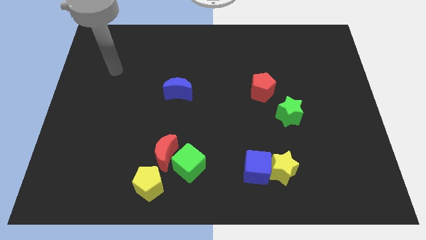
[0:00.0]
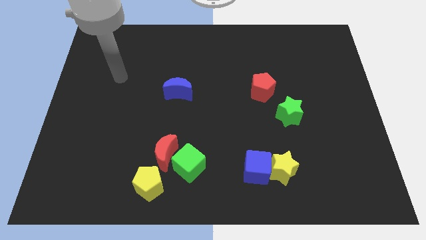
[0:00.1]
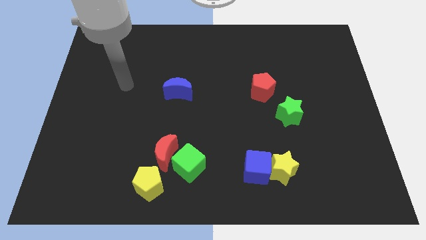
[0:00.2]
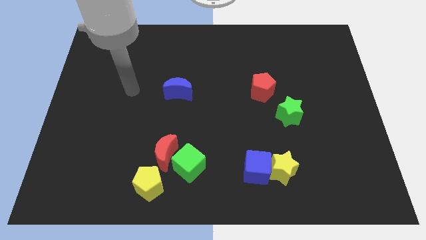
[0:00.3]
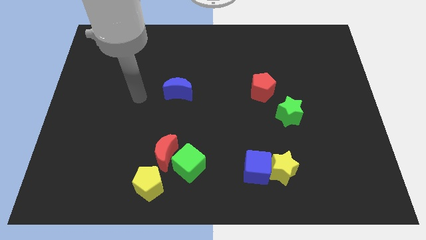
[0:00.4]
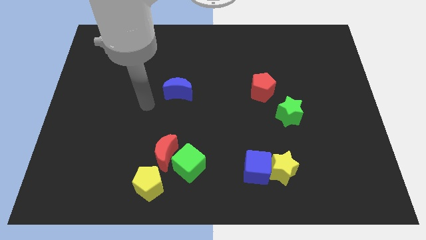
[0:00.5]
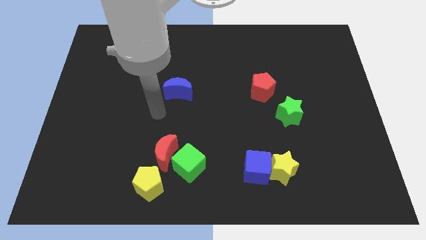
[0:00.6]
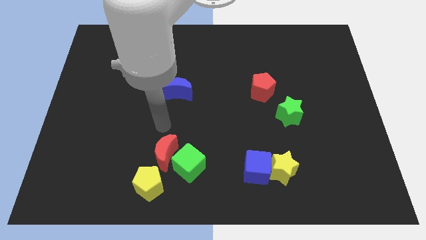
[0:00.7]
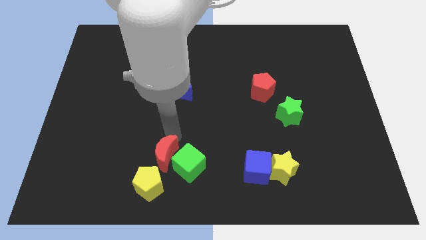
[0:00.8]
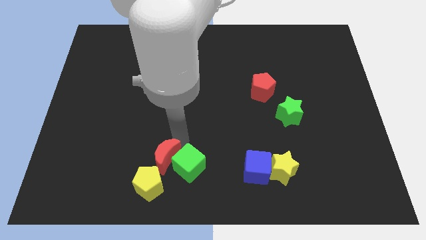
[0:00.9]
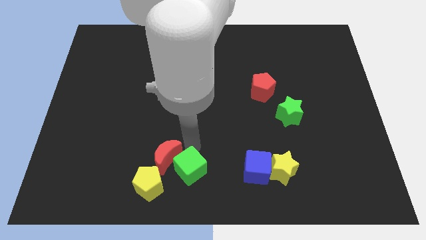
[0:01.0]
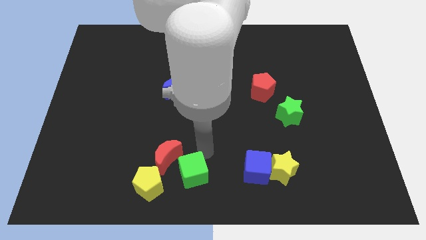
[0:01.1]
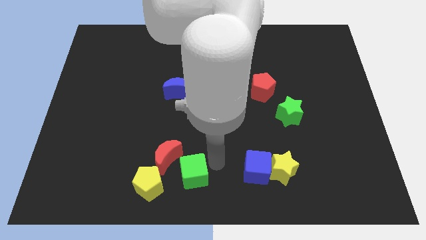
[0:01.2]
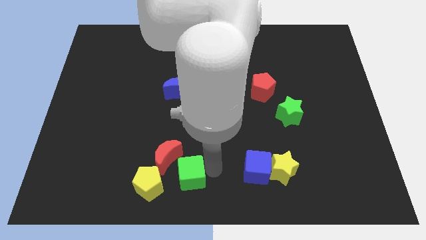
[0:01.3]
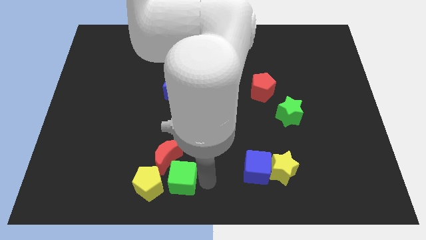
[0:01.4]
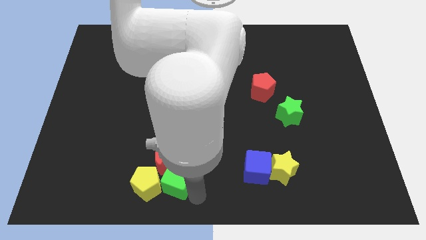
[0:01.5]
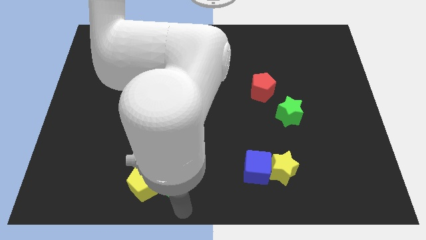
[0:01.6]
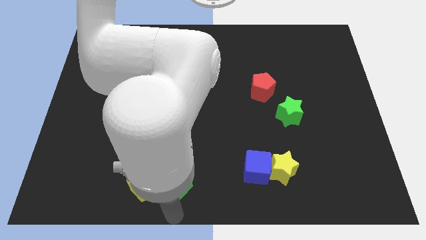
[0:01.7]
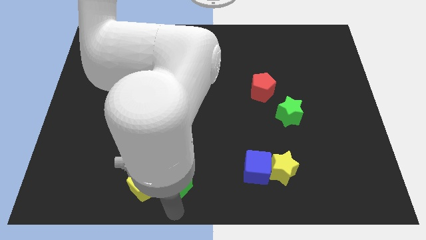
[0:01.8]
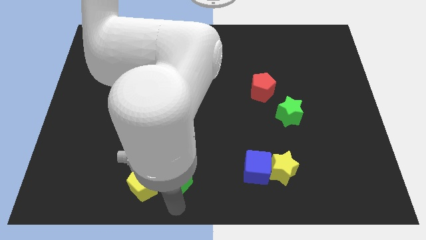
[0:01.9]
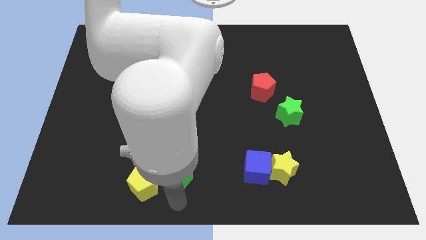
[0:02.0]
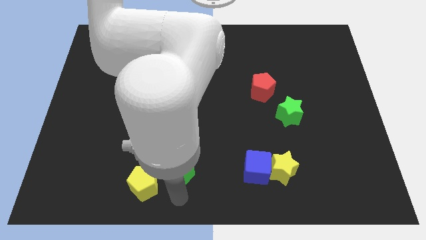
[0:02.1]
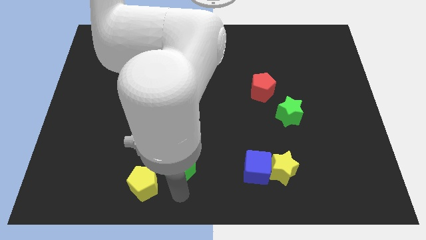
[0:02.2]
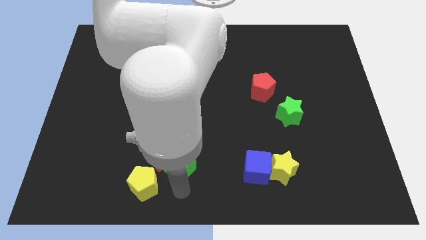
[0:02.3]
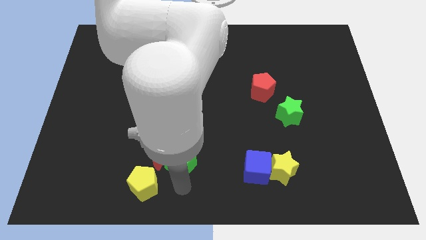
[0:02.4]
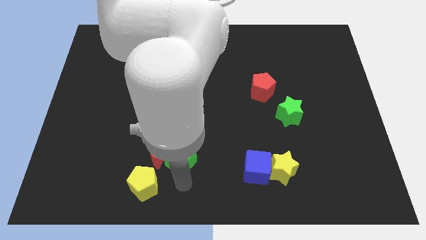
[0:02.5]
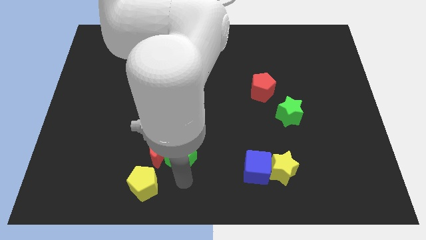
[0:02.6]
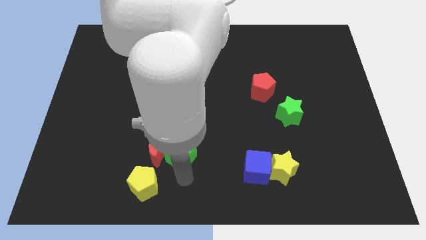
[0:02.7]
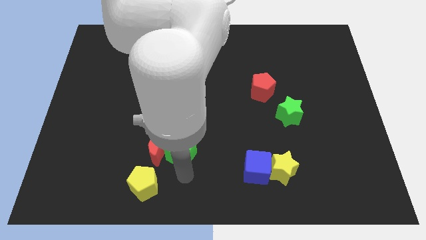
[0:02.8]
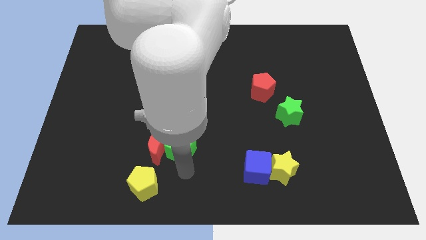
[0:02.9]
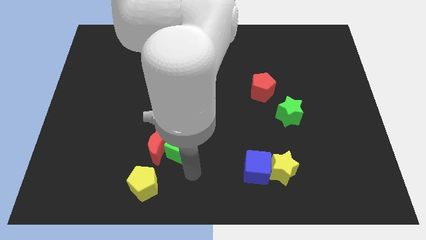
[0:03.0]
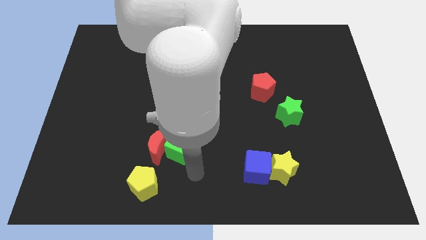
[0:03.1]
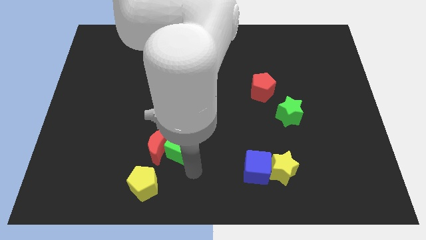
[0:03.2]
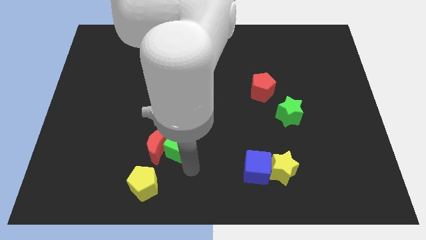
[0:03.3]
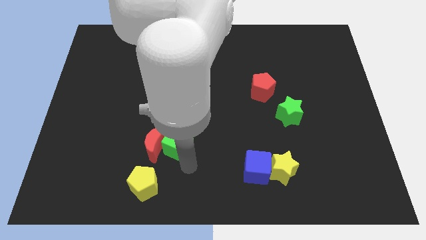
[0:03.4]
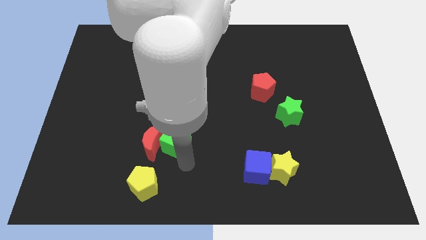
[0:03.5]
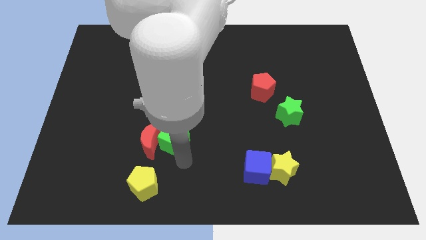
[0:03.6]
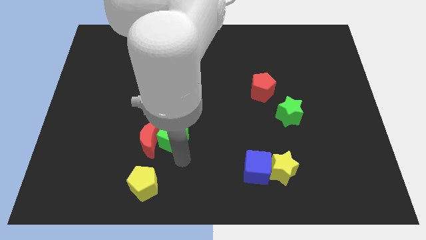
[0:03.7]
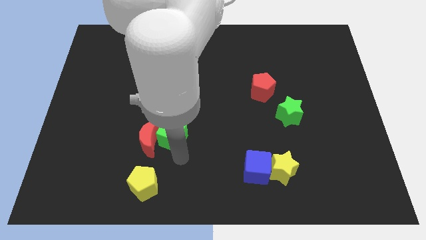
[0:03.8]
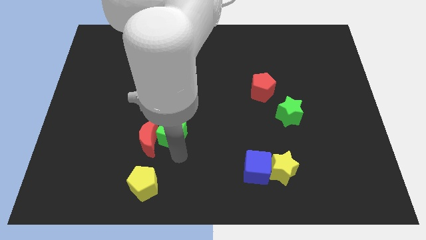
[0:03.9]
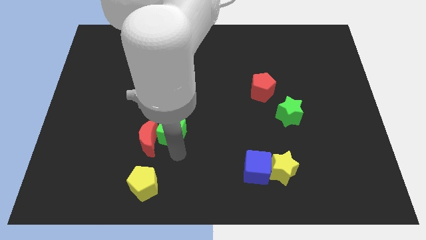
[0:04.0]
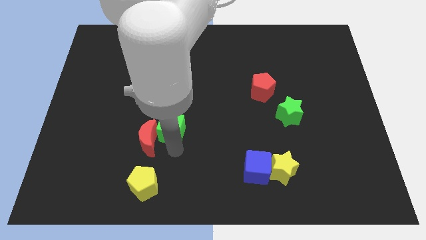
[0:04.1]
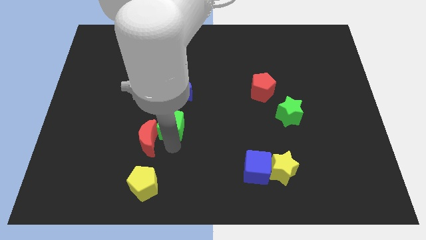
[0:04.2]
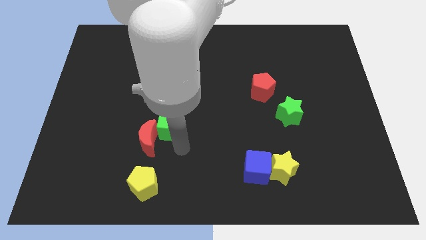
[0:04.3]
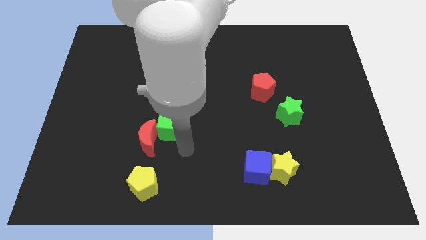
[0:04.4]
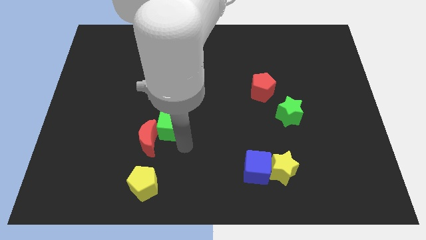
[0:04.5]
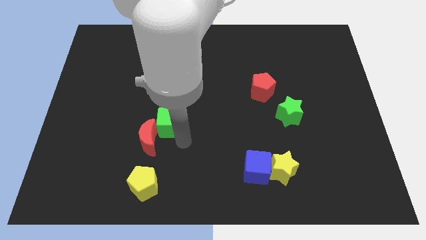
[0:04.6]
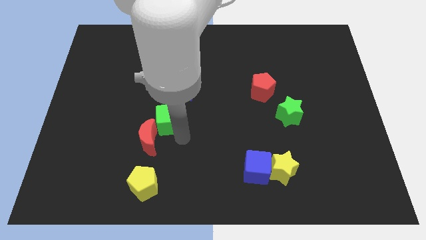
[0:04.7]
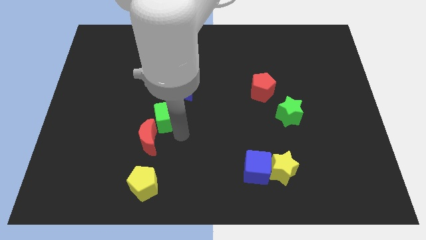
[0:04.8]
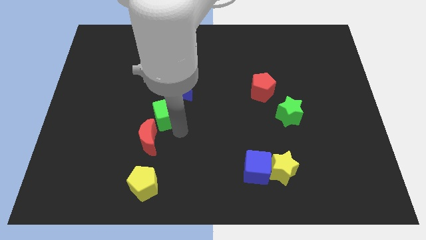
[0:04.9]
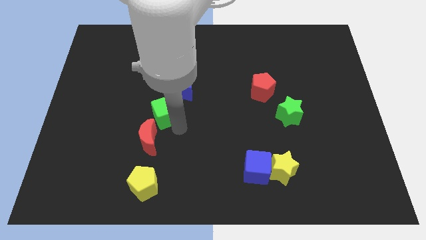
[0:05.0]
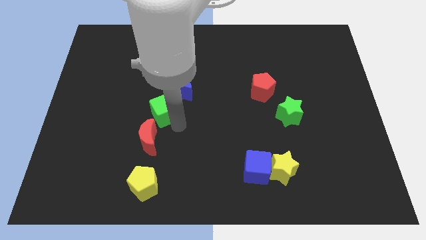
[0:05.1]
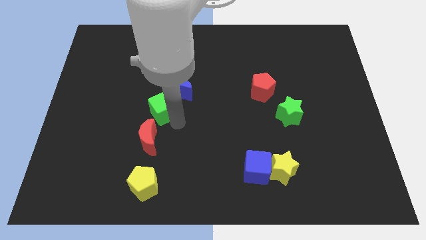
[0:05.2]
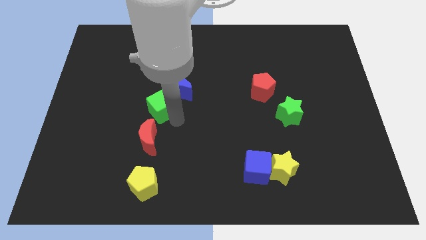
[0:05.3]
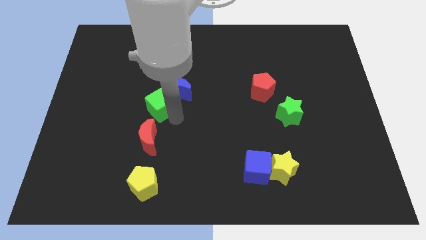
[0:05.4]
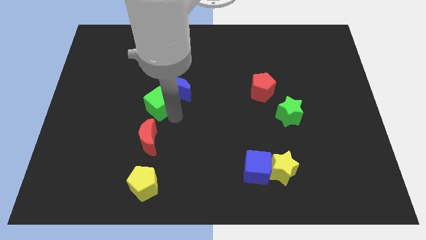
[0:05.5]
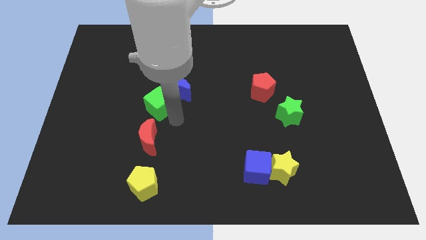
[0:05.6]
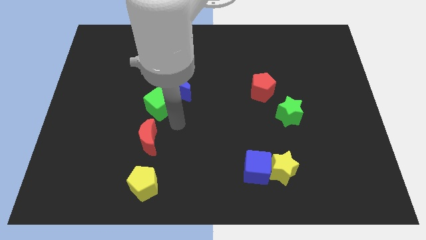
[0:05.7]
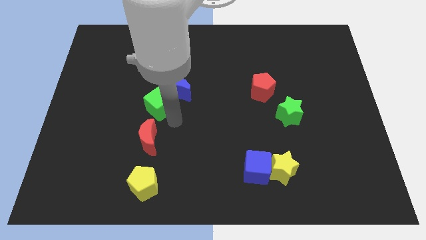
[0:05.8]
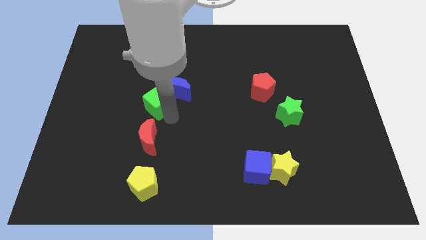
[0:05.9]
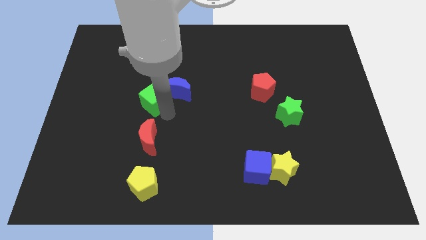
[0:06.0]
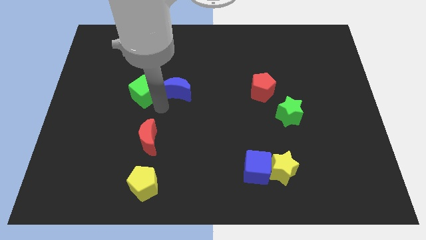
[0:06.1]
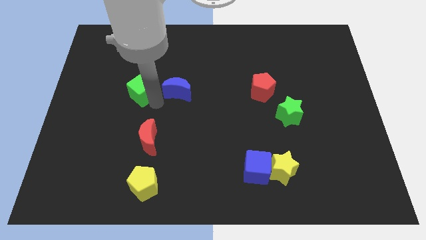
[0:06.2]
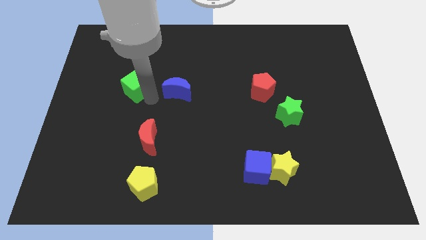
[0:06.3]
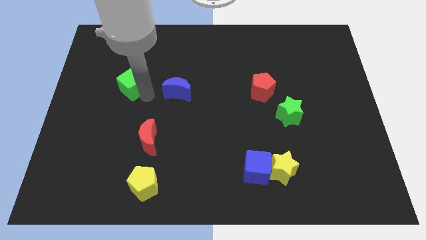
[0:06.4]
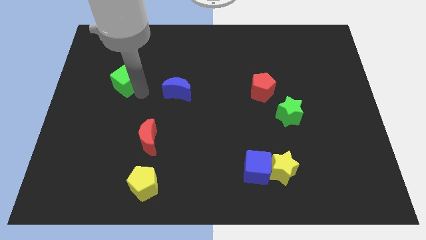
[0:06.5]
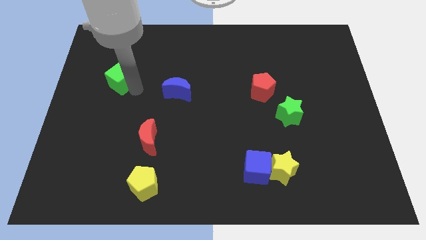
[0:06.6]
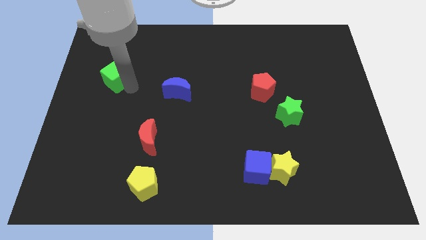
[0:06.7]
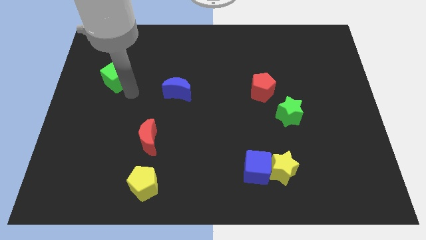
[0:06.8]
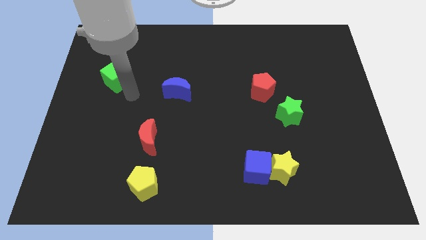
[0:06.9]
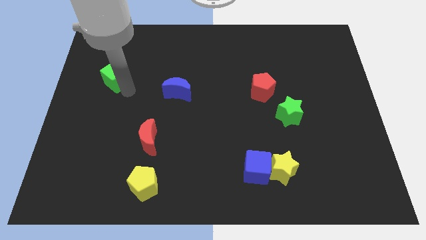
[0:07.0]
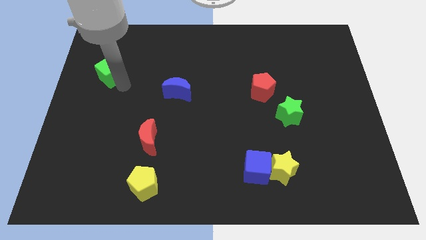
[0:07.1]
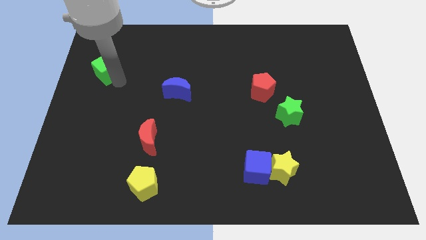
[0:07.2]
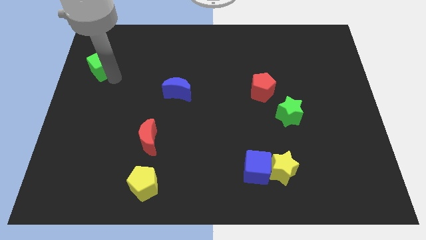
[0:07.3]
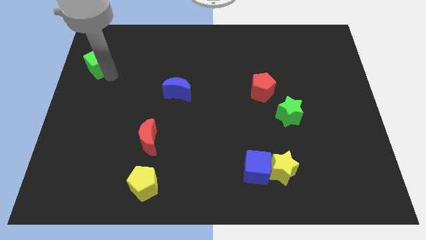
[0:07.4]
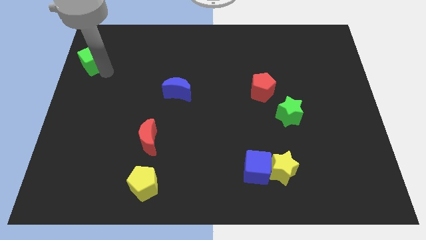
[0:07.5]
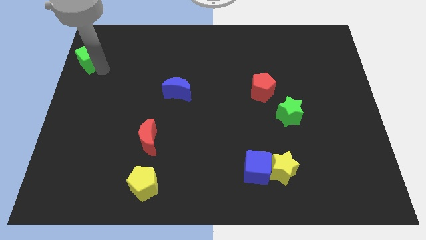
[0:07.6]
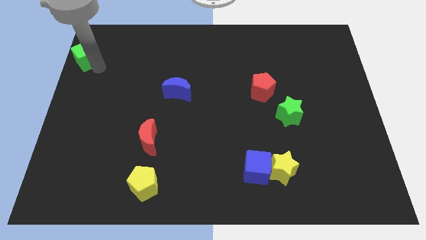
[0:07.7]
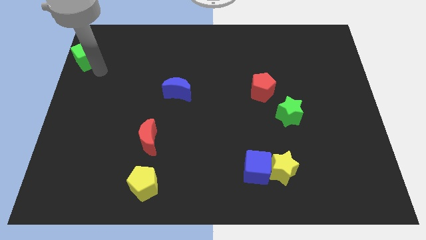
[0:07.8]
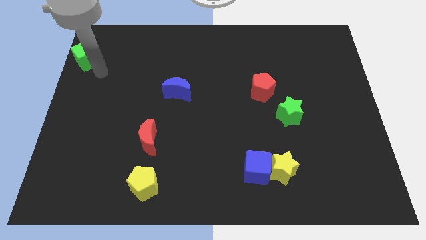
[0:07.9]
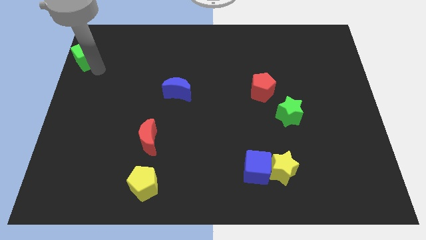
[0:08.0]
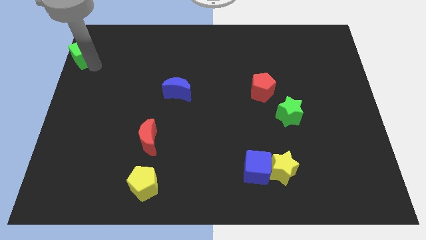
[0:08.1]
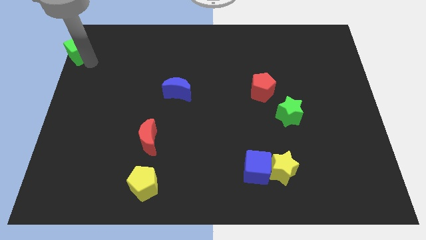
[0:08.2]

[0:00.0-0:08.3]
push the green cube to the upper left corner
